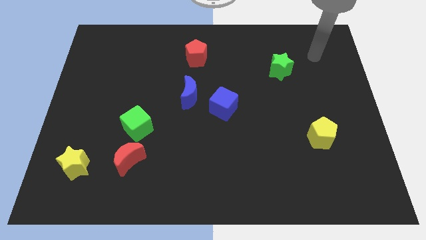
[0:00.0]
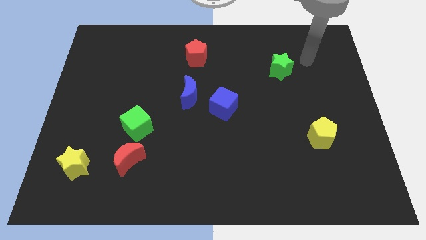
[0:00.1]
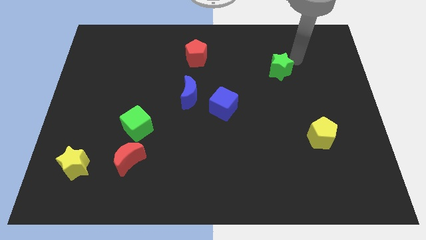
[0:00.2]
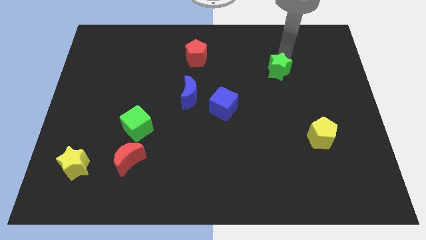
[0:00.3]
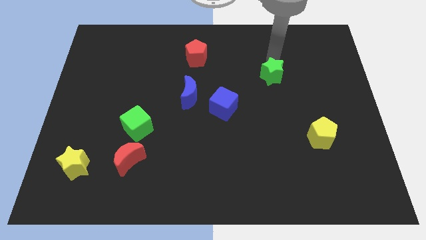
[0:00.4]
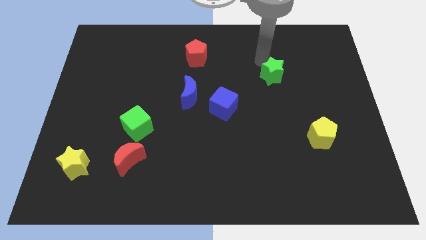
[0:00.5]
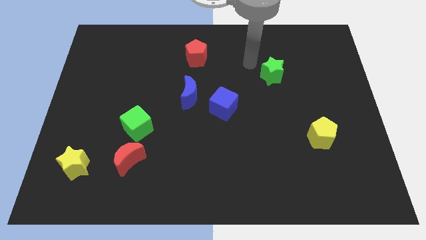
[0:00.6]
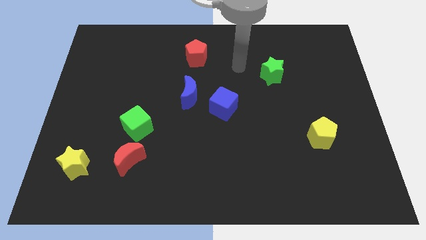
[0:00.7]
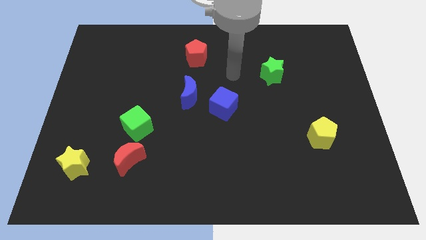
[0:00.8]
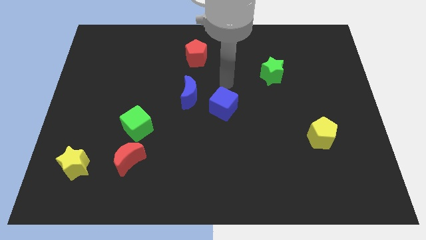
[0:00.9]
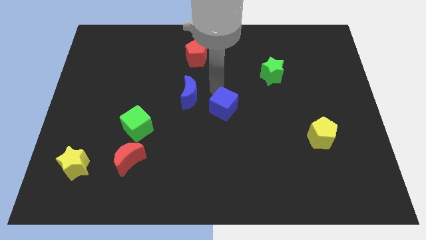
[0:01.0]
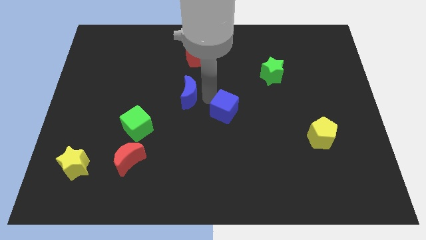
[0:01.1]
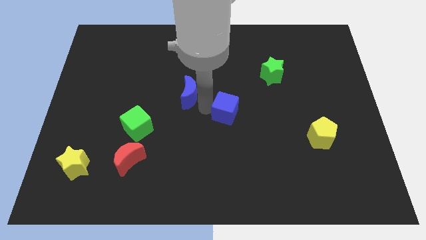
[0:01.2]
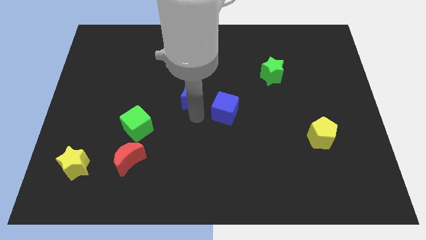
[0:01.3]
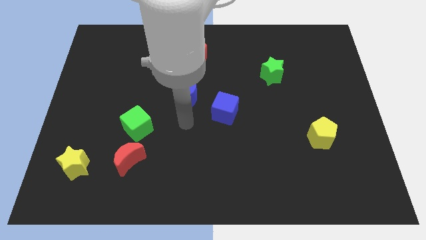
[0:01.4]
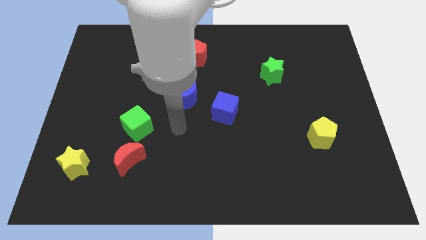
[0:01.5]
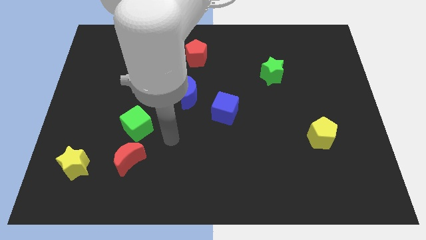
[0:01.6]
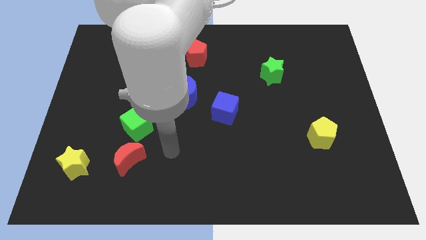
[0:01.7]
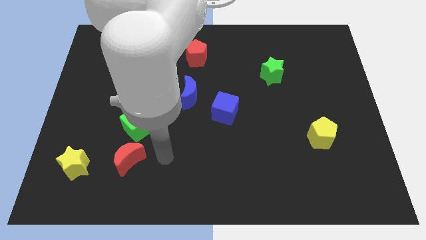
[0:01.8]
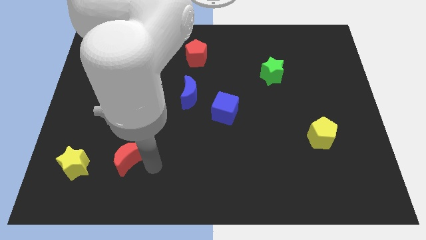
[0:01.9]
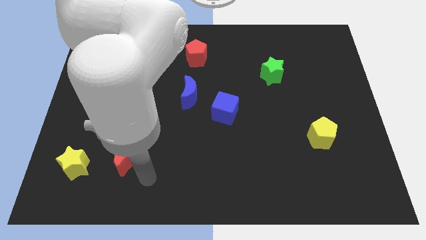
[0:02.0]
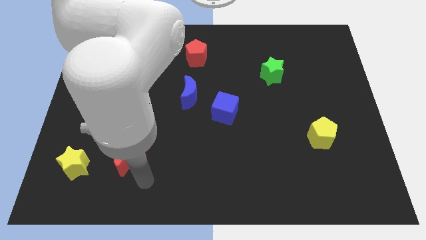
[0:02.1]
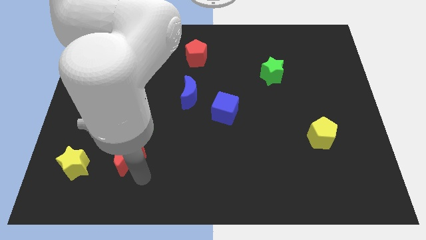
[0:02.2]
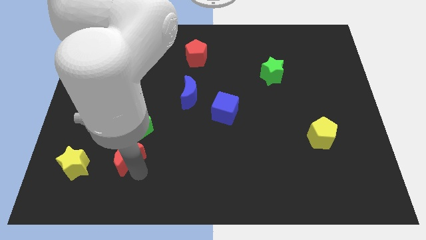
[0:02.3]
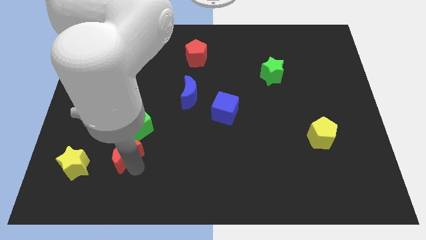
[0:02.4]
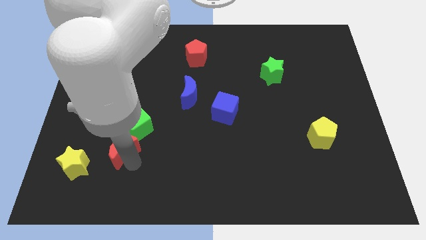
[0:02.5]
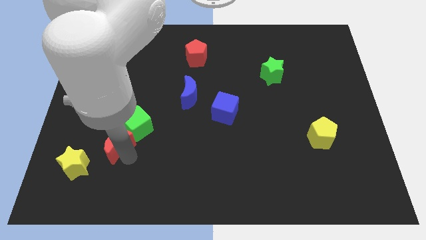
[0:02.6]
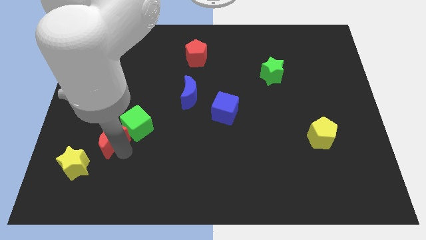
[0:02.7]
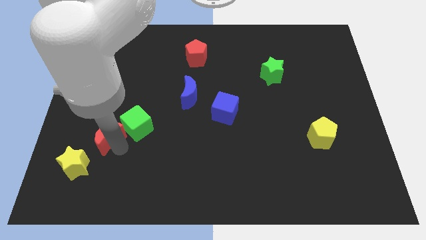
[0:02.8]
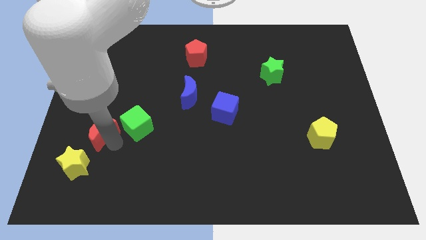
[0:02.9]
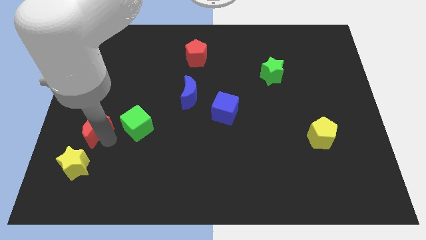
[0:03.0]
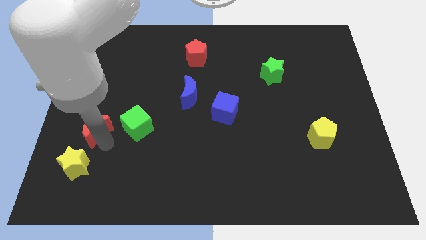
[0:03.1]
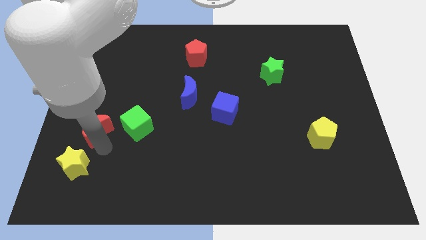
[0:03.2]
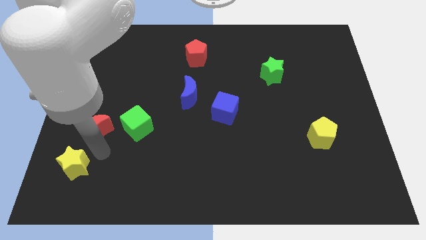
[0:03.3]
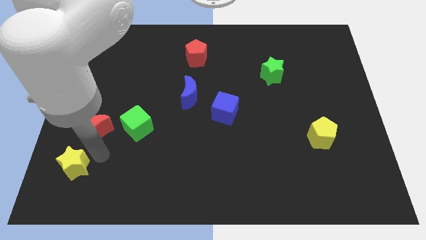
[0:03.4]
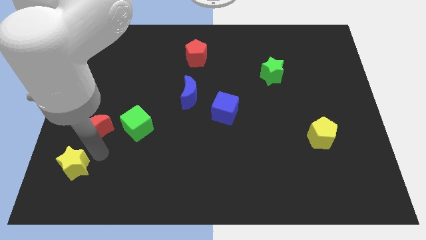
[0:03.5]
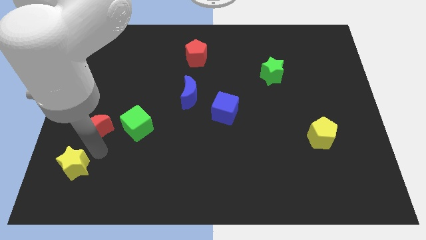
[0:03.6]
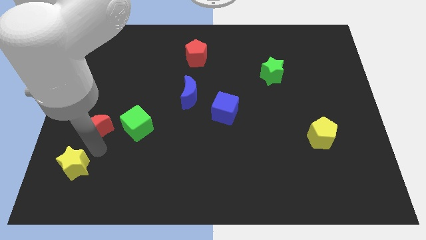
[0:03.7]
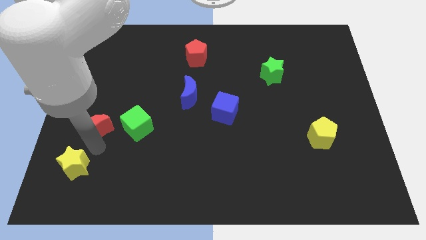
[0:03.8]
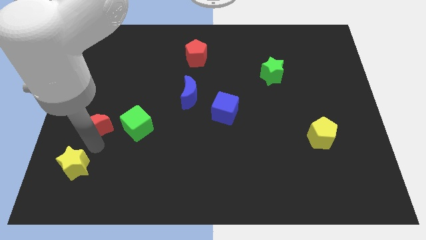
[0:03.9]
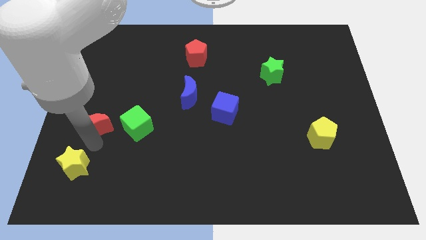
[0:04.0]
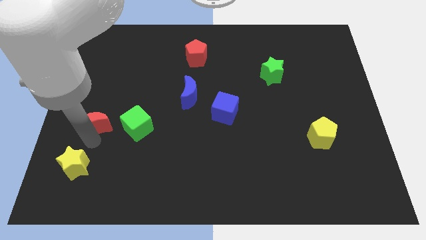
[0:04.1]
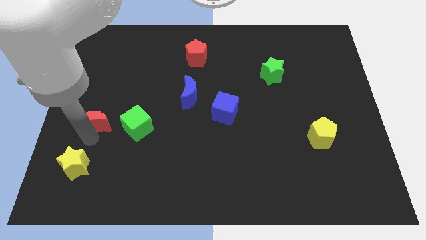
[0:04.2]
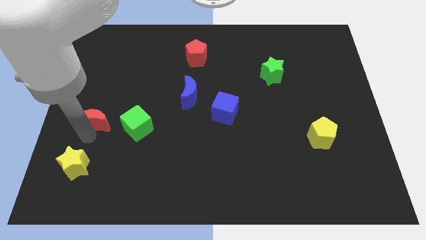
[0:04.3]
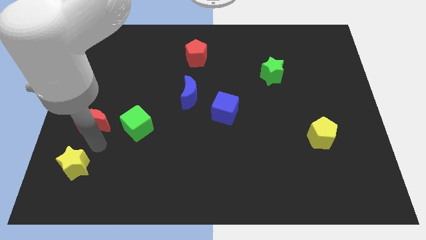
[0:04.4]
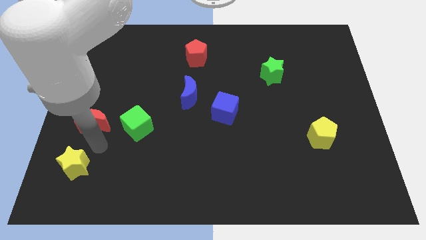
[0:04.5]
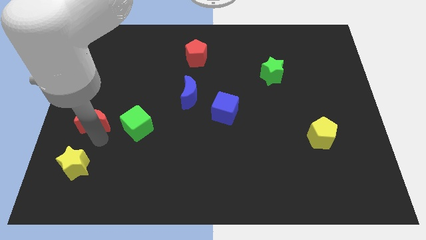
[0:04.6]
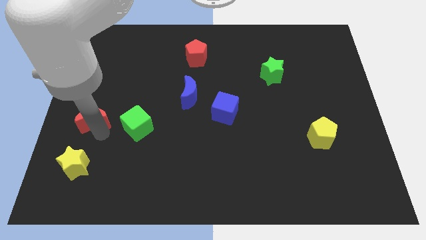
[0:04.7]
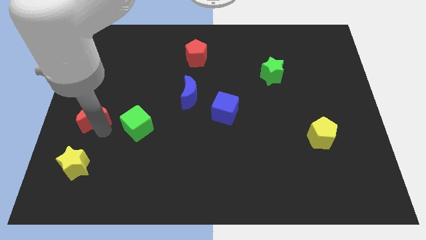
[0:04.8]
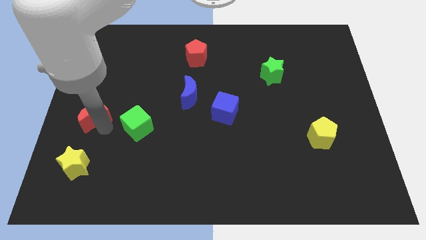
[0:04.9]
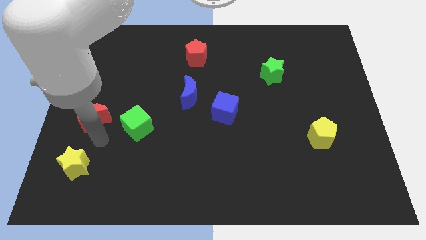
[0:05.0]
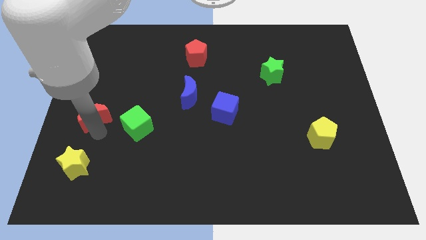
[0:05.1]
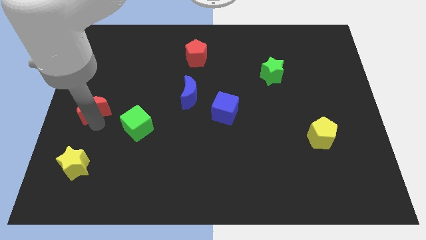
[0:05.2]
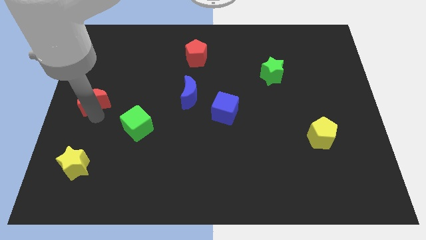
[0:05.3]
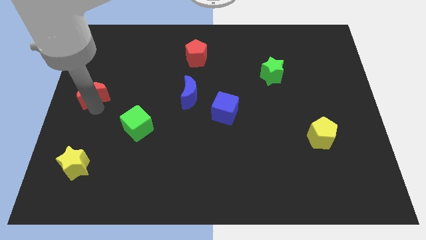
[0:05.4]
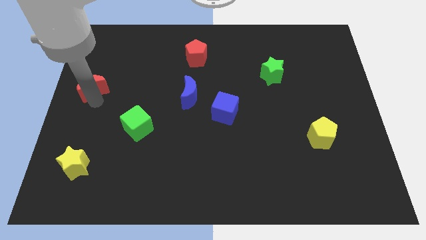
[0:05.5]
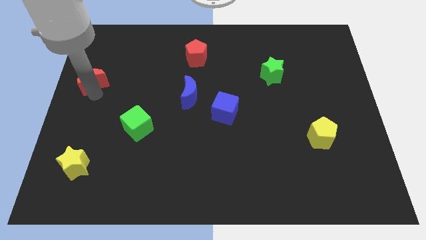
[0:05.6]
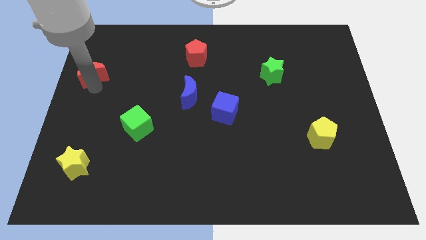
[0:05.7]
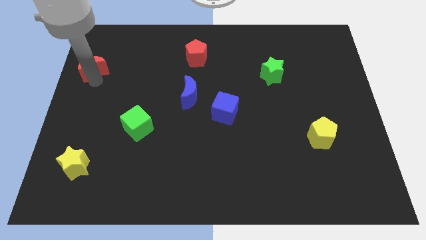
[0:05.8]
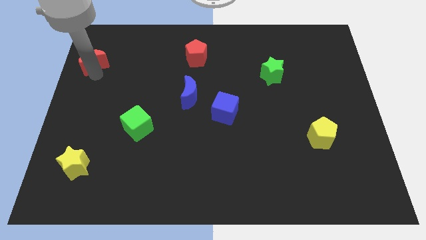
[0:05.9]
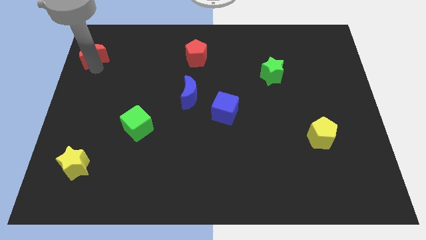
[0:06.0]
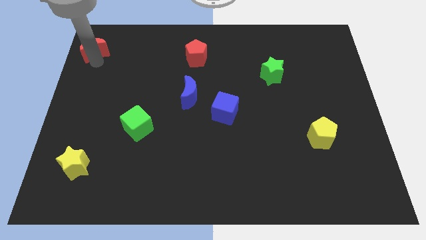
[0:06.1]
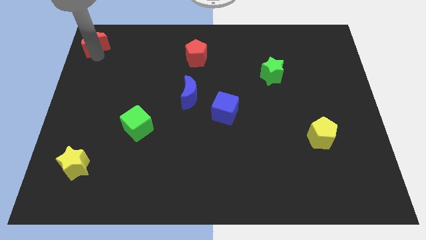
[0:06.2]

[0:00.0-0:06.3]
move the red moon to the top left

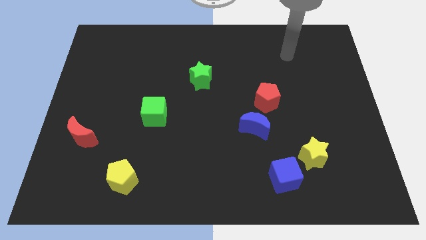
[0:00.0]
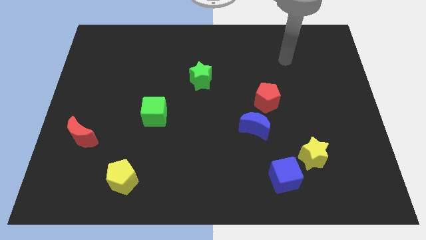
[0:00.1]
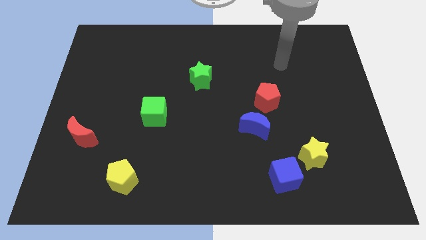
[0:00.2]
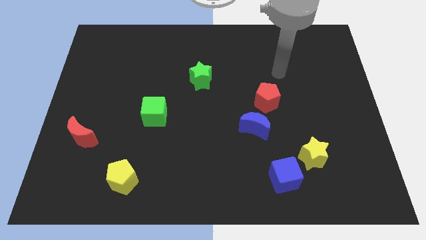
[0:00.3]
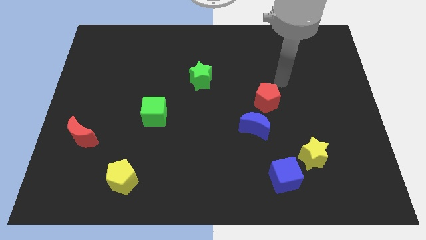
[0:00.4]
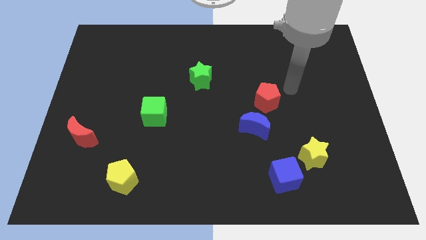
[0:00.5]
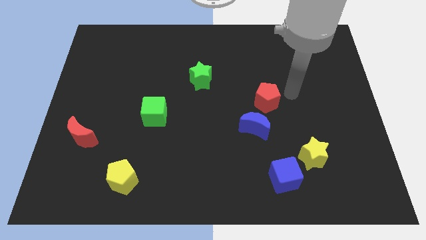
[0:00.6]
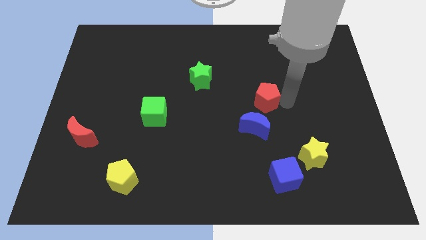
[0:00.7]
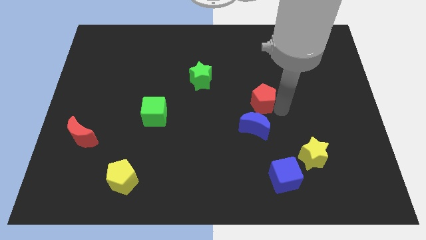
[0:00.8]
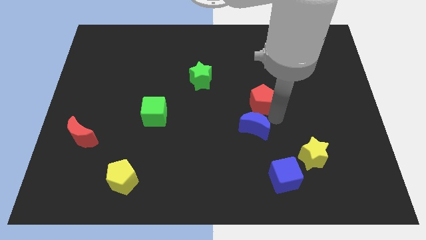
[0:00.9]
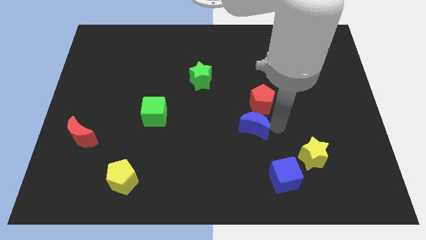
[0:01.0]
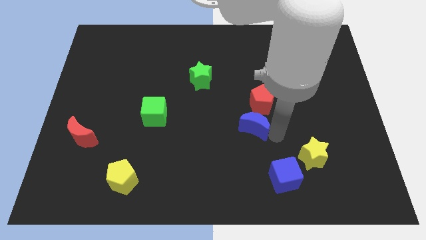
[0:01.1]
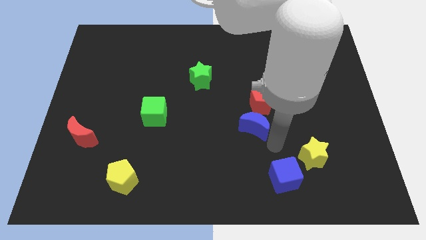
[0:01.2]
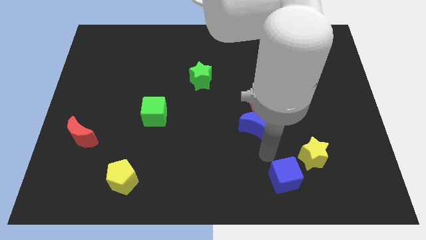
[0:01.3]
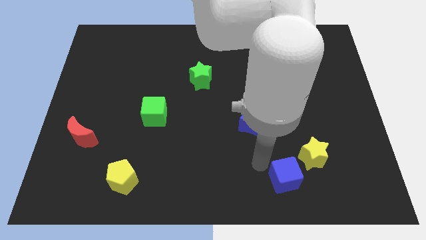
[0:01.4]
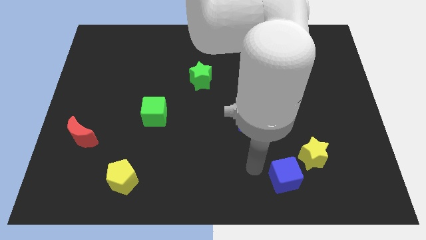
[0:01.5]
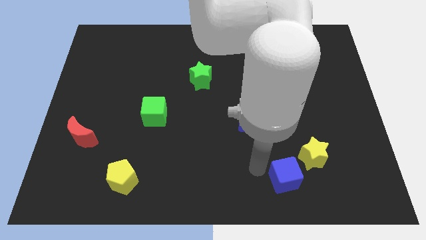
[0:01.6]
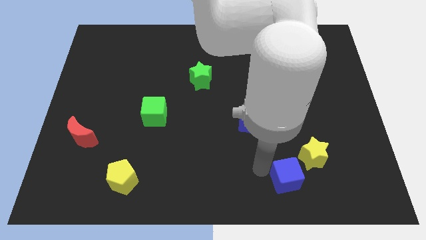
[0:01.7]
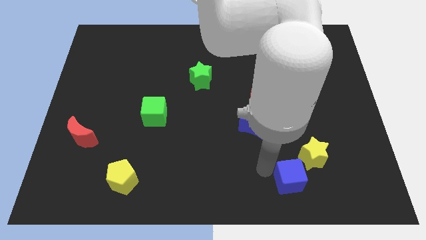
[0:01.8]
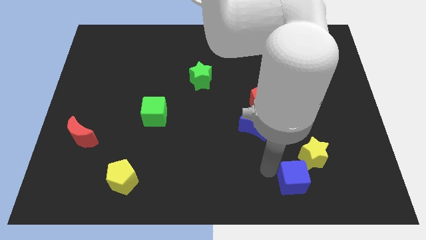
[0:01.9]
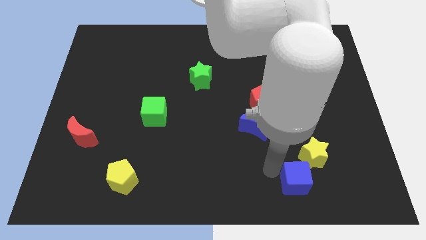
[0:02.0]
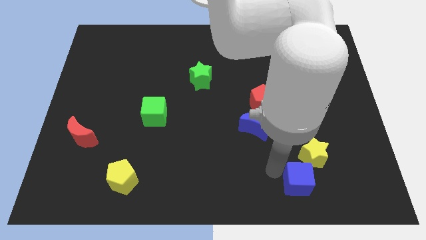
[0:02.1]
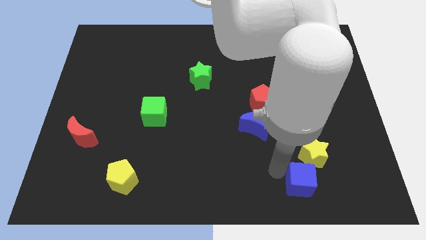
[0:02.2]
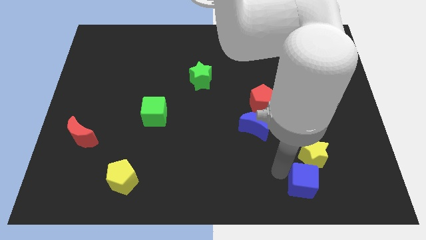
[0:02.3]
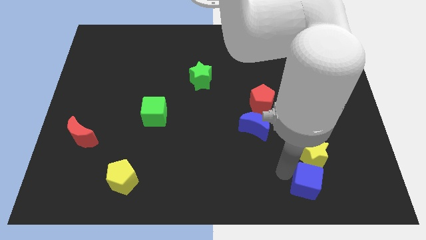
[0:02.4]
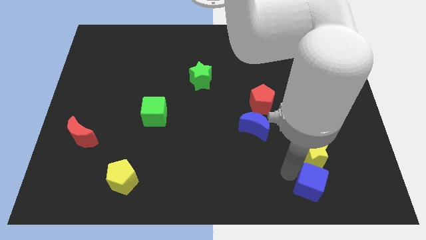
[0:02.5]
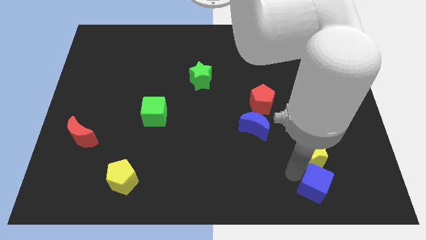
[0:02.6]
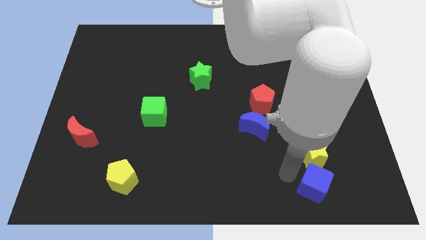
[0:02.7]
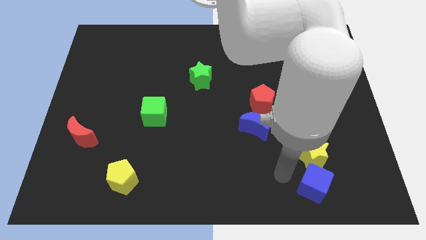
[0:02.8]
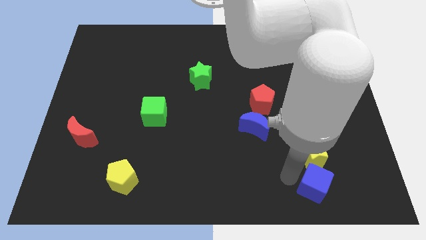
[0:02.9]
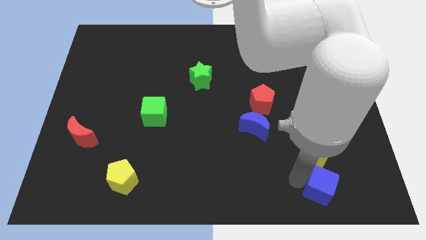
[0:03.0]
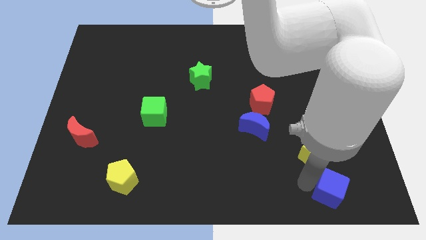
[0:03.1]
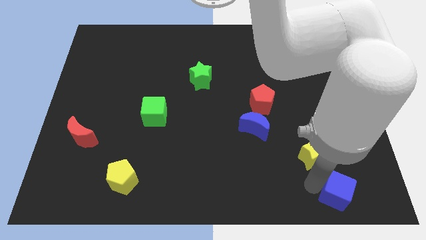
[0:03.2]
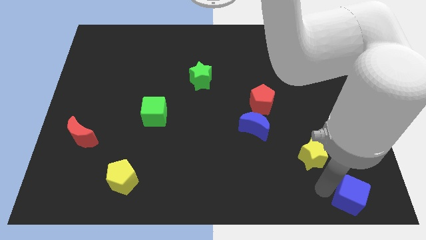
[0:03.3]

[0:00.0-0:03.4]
put the blue cube to the lower right corner
